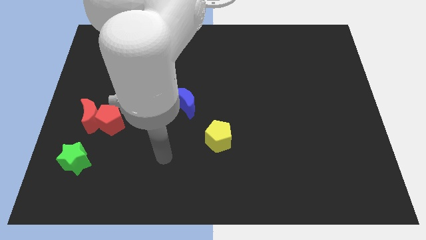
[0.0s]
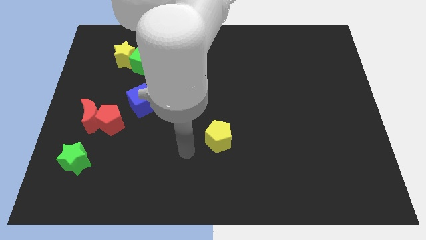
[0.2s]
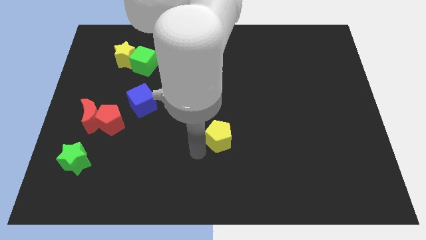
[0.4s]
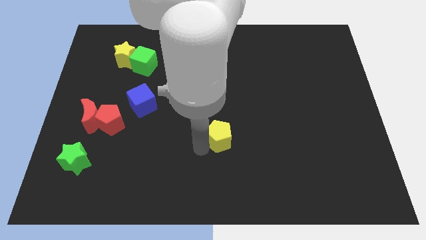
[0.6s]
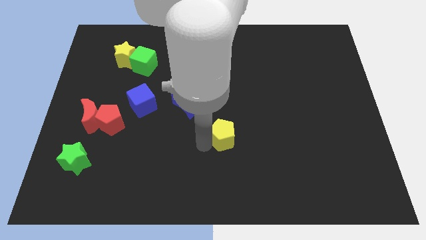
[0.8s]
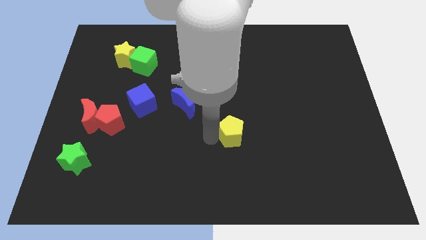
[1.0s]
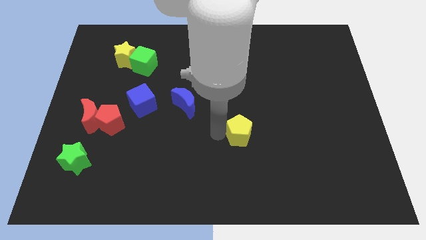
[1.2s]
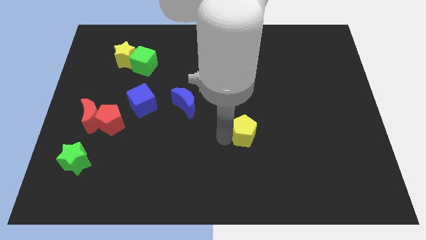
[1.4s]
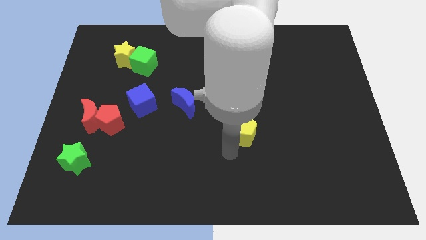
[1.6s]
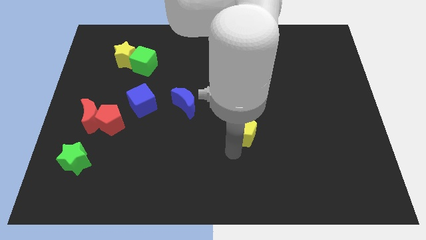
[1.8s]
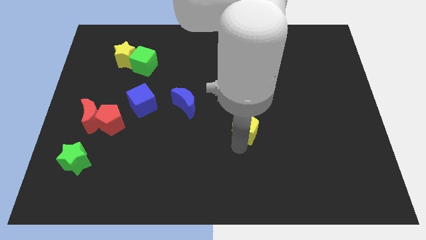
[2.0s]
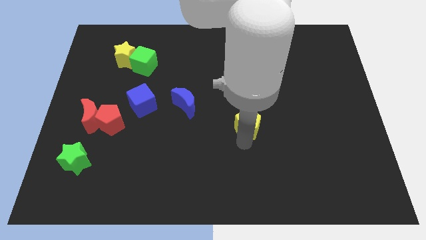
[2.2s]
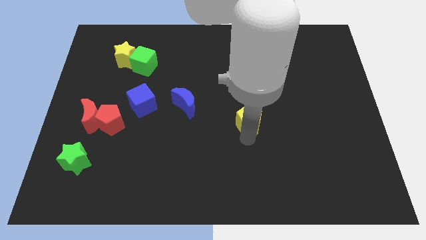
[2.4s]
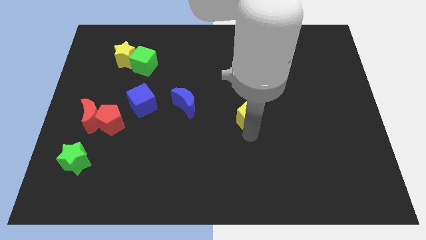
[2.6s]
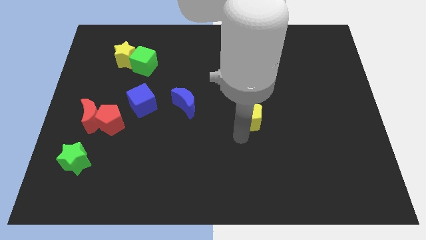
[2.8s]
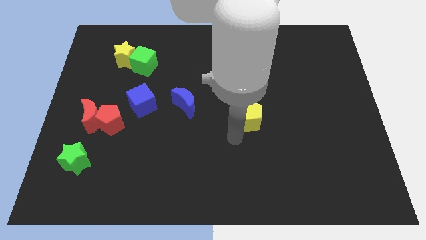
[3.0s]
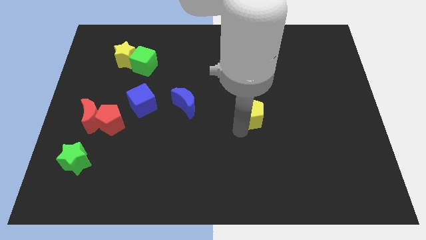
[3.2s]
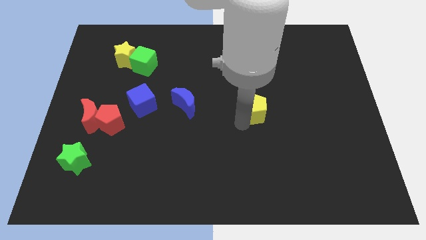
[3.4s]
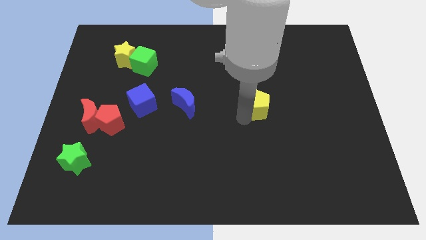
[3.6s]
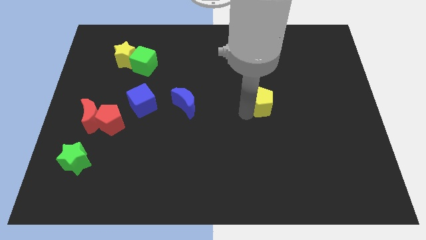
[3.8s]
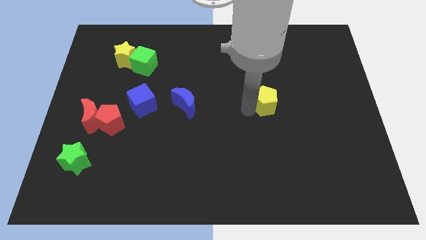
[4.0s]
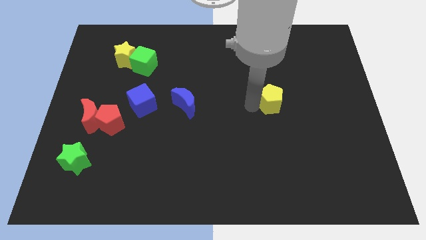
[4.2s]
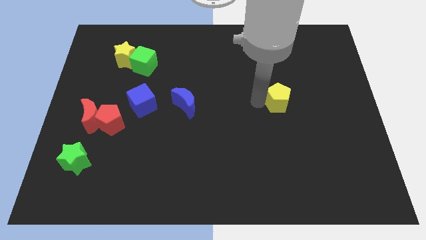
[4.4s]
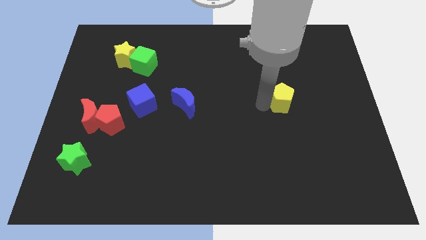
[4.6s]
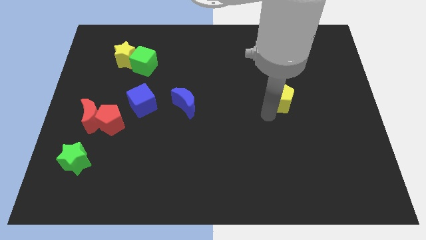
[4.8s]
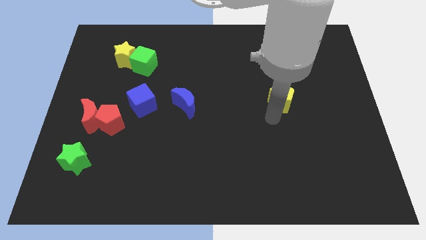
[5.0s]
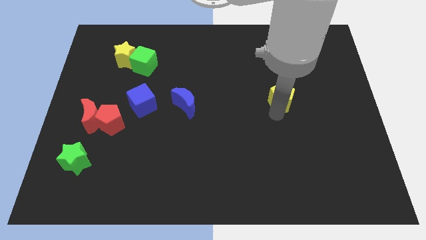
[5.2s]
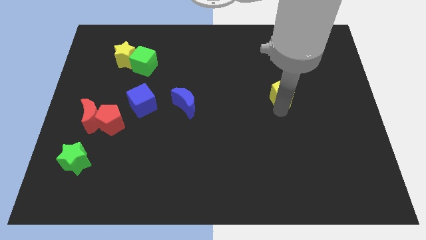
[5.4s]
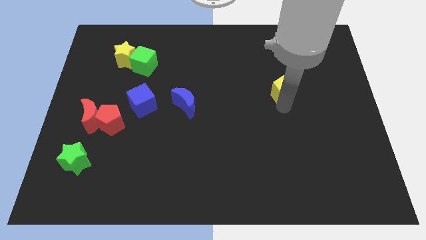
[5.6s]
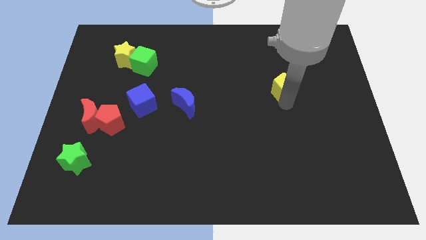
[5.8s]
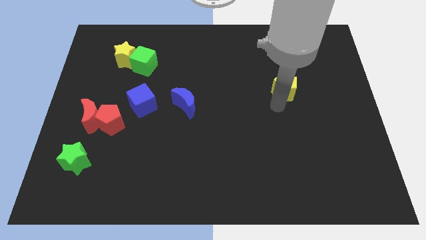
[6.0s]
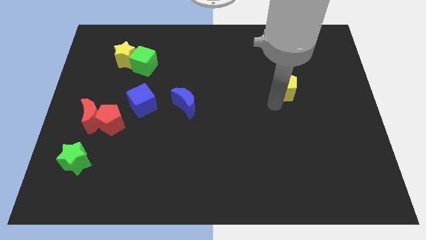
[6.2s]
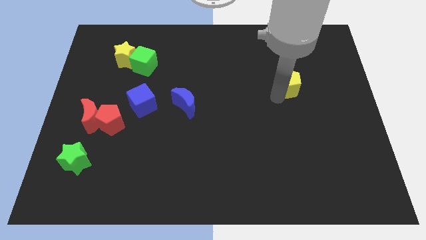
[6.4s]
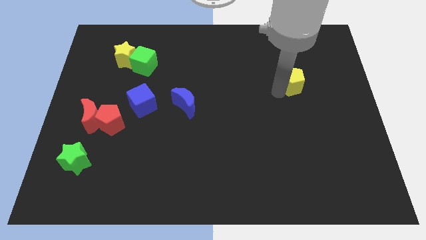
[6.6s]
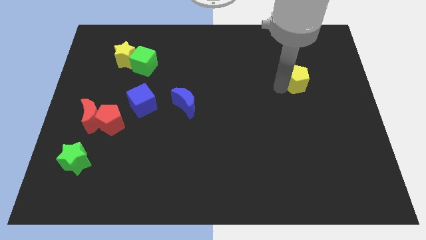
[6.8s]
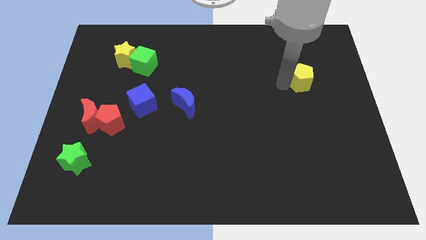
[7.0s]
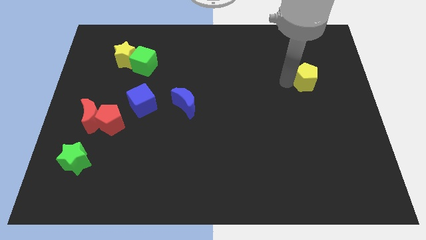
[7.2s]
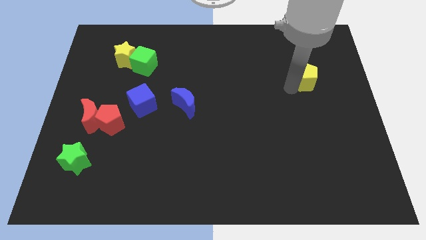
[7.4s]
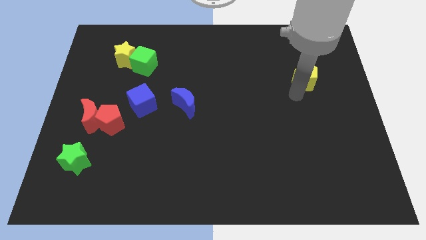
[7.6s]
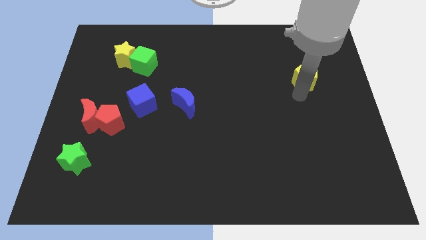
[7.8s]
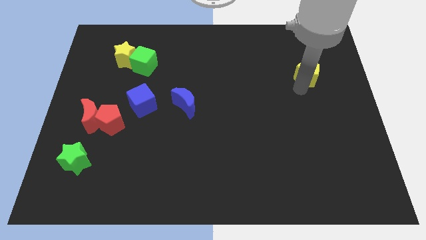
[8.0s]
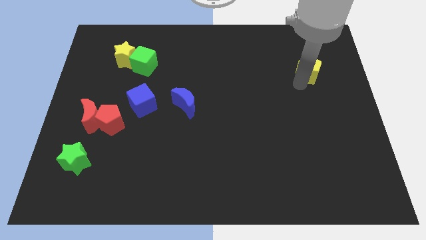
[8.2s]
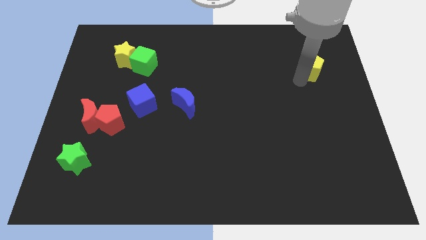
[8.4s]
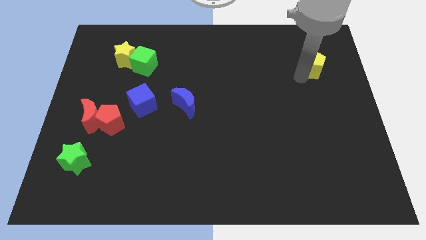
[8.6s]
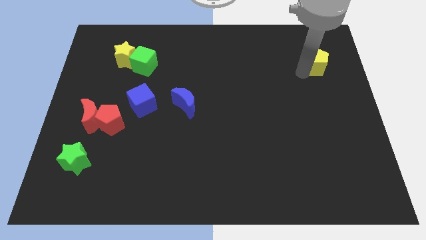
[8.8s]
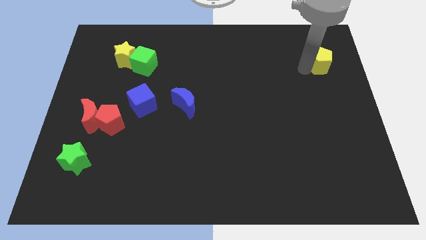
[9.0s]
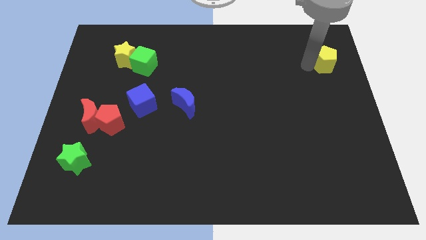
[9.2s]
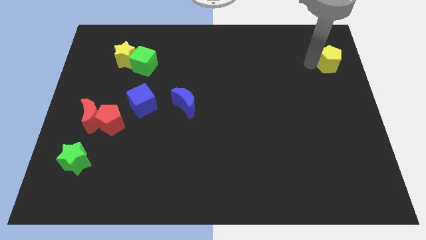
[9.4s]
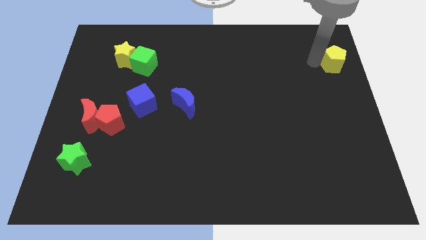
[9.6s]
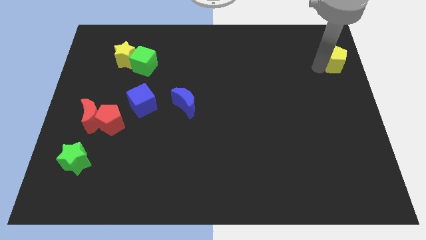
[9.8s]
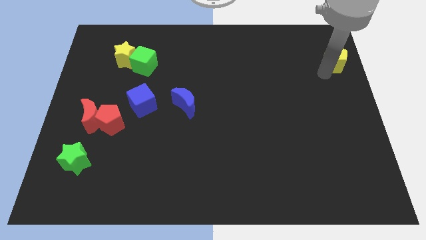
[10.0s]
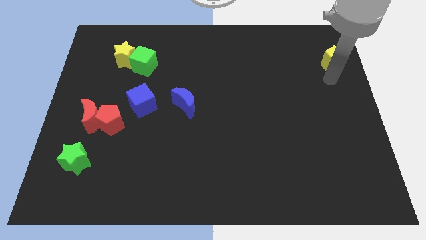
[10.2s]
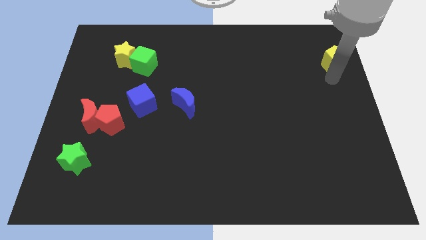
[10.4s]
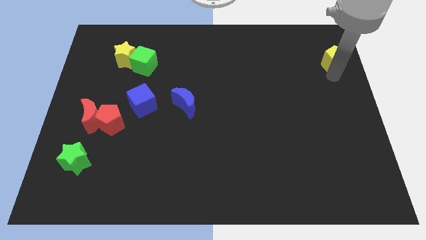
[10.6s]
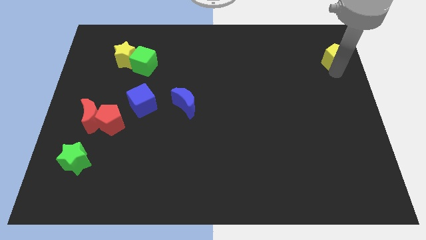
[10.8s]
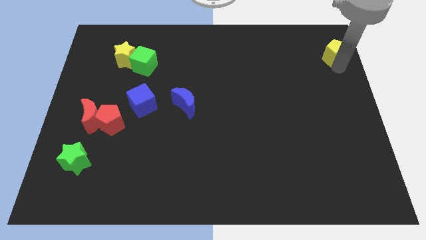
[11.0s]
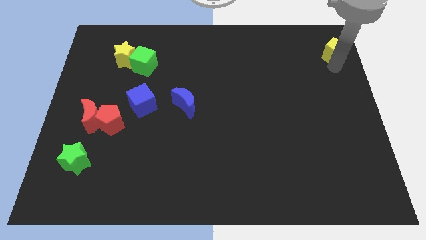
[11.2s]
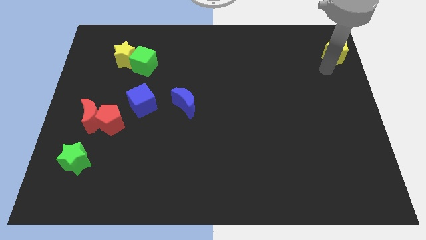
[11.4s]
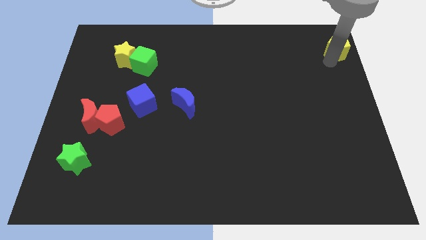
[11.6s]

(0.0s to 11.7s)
move the yellow pentagon to the top right of the board

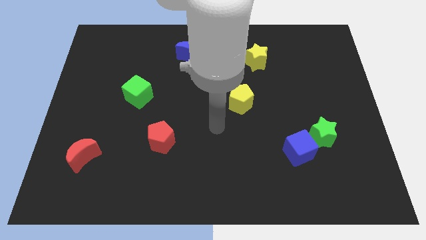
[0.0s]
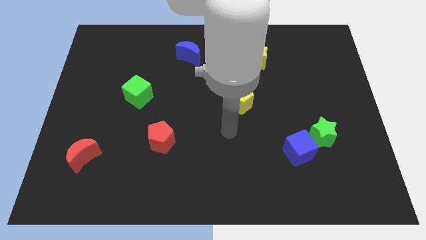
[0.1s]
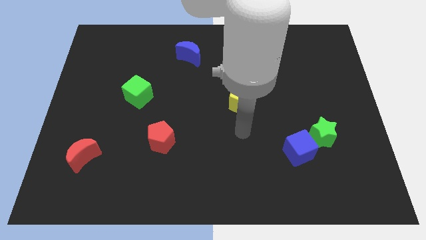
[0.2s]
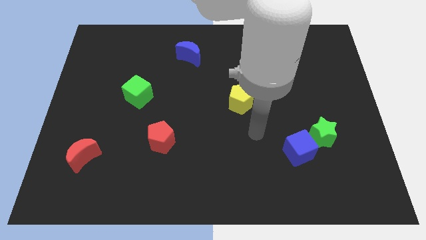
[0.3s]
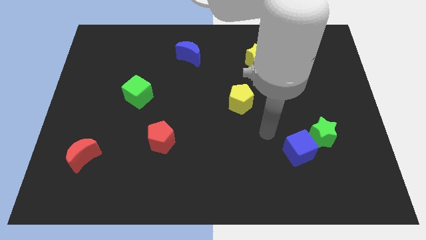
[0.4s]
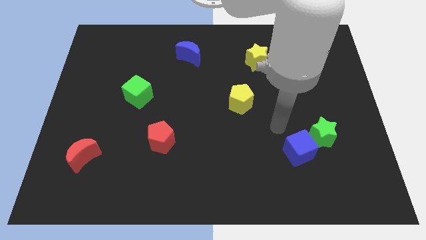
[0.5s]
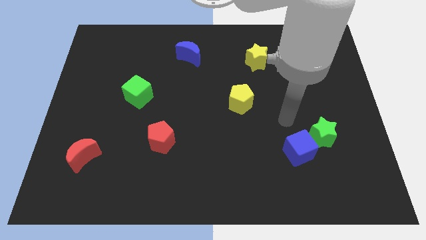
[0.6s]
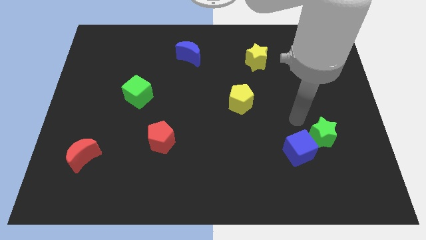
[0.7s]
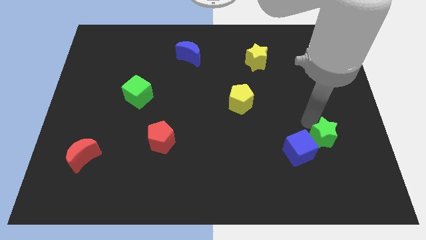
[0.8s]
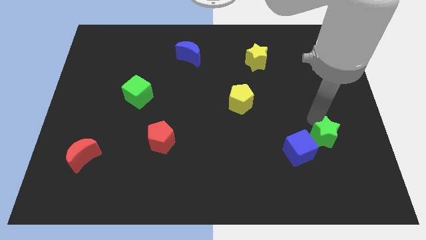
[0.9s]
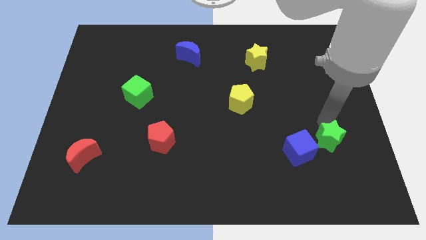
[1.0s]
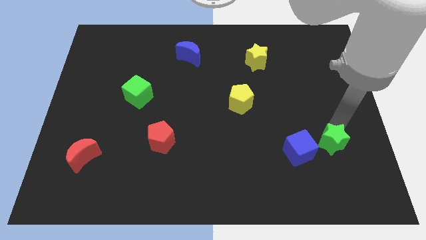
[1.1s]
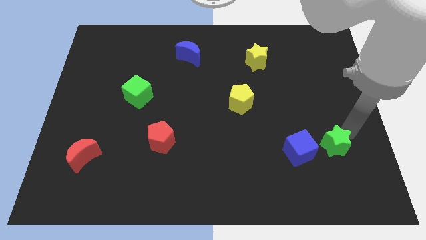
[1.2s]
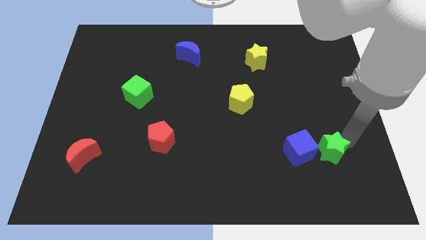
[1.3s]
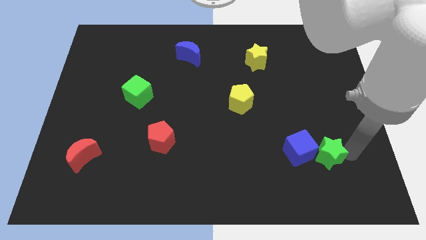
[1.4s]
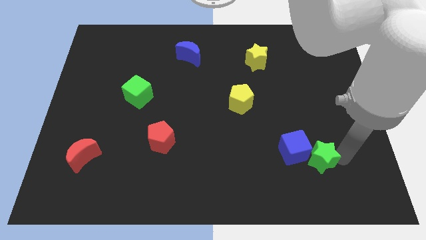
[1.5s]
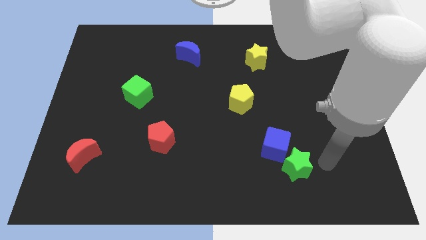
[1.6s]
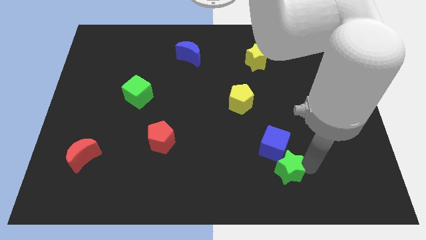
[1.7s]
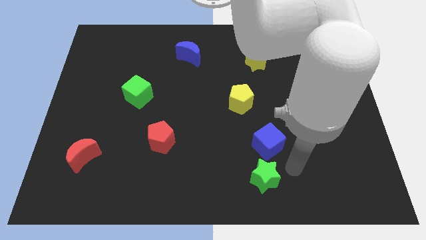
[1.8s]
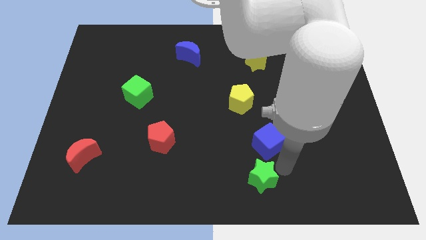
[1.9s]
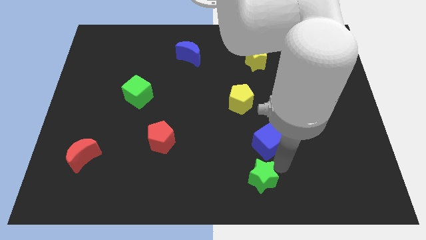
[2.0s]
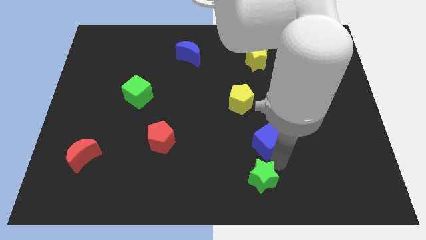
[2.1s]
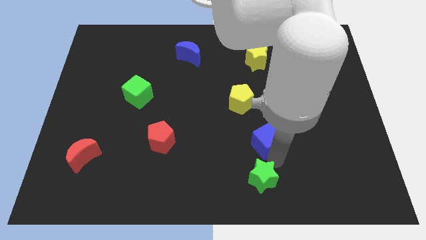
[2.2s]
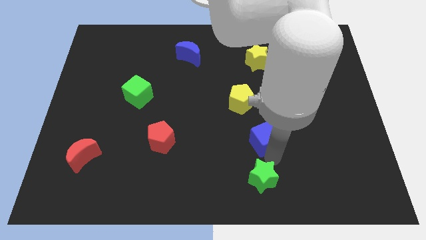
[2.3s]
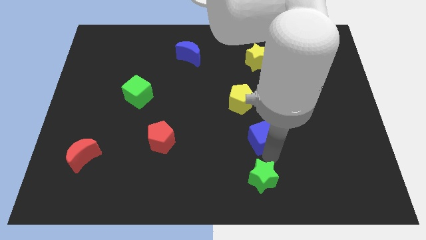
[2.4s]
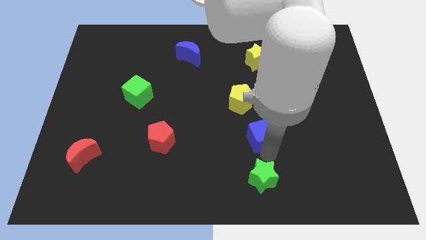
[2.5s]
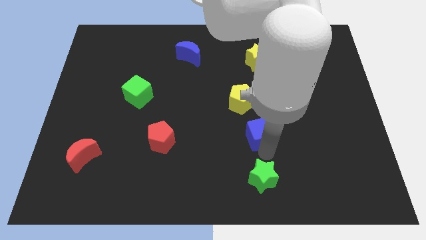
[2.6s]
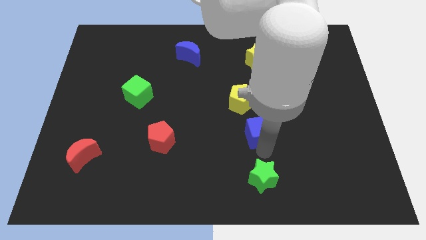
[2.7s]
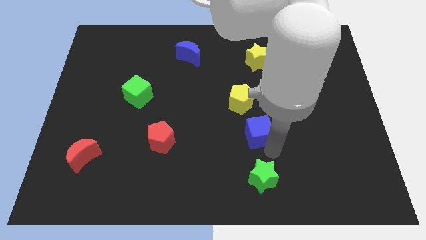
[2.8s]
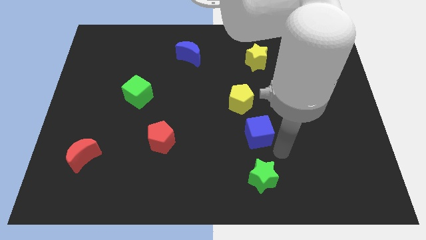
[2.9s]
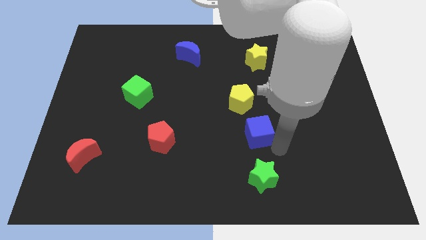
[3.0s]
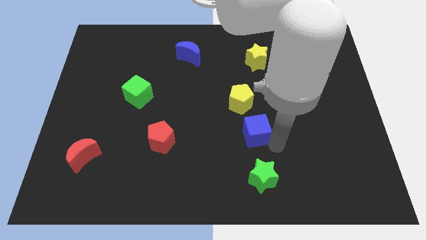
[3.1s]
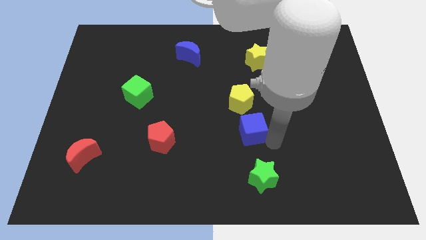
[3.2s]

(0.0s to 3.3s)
slide the blue cube to the center of the board
